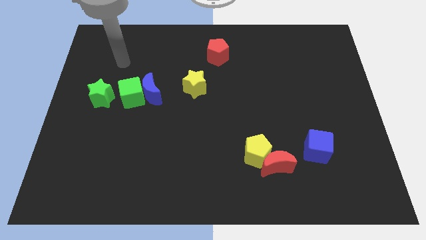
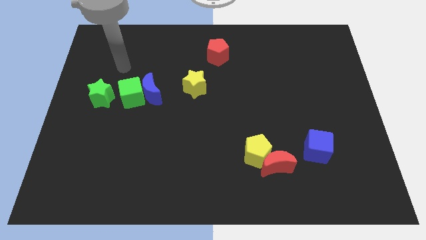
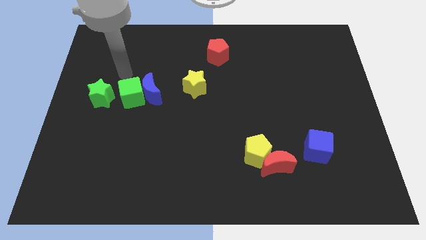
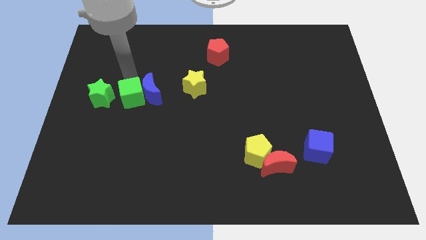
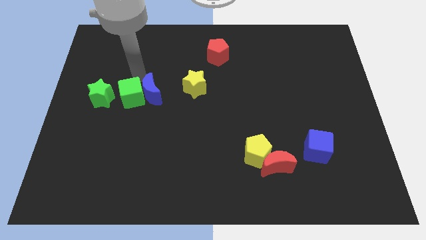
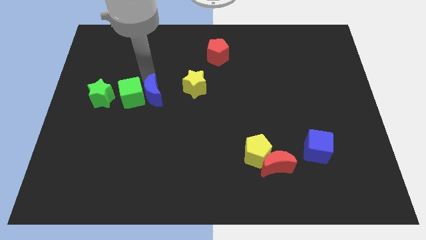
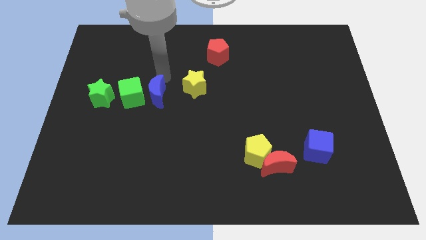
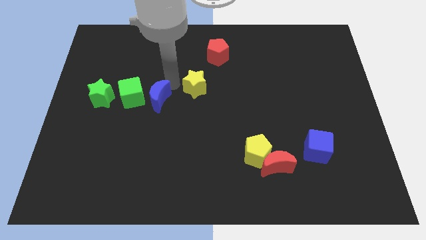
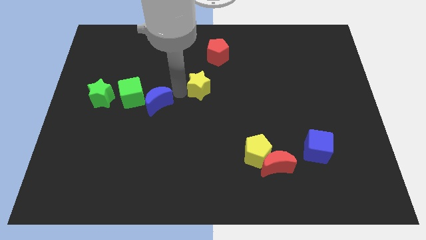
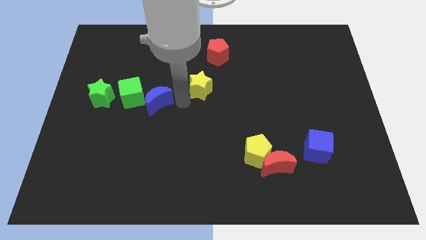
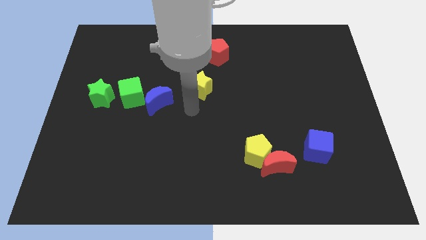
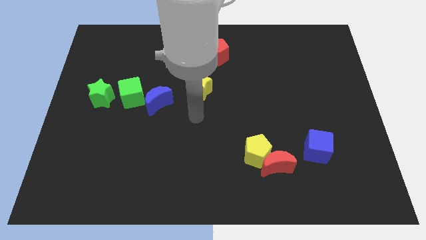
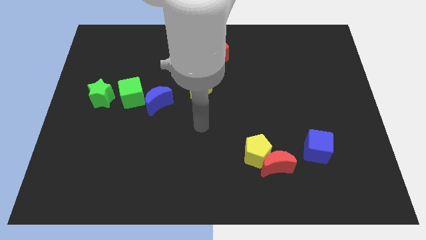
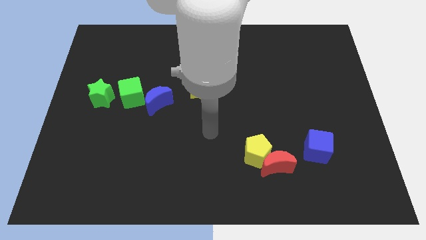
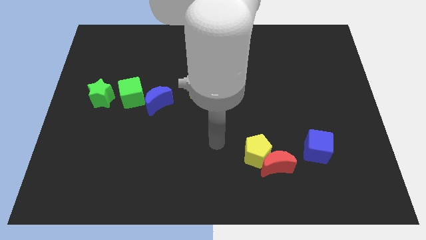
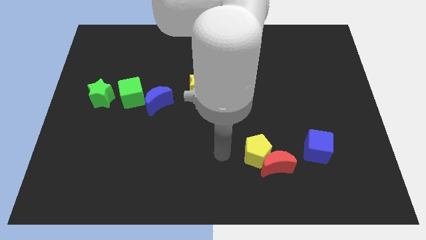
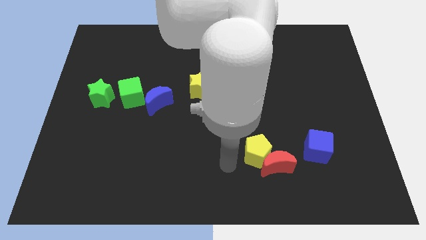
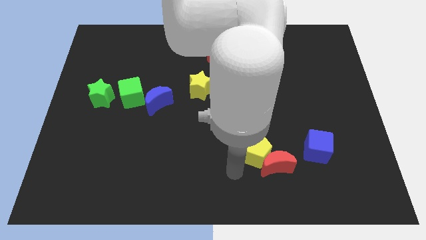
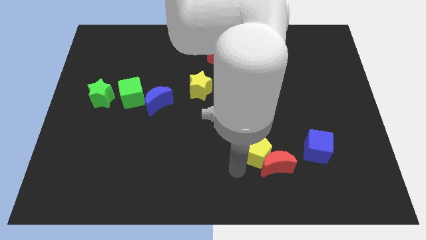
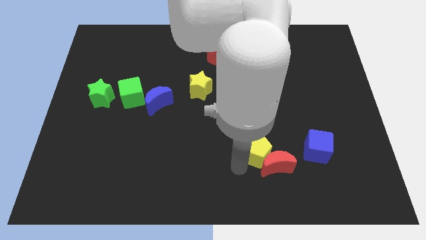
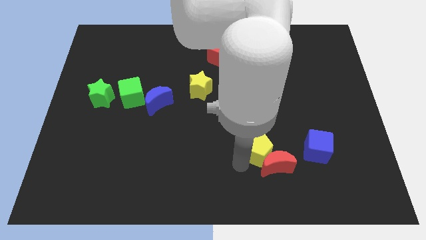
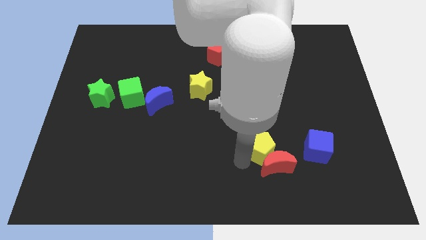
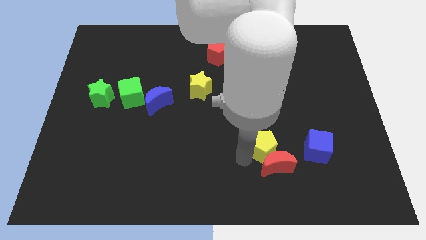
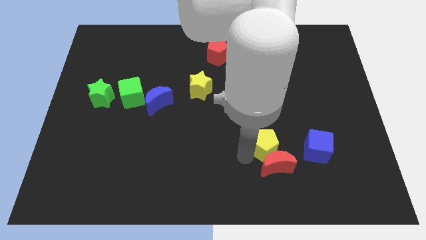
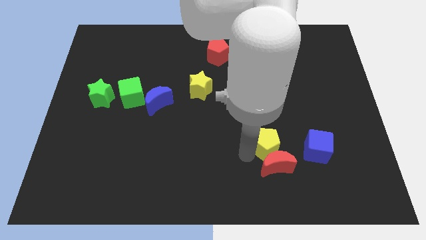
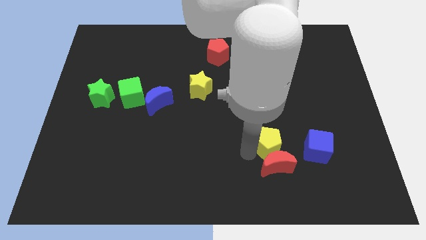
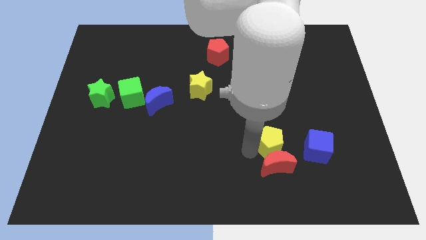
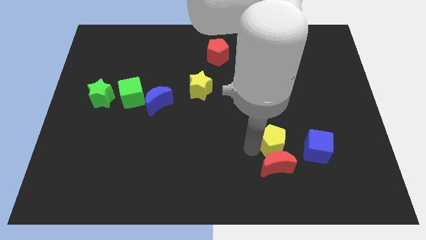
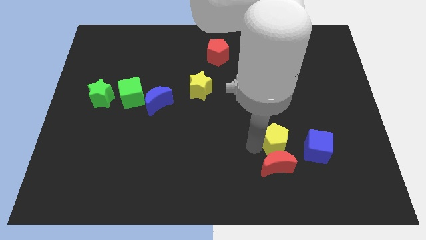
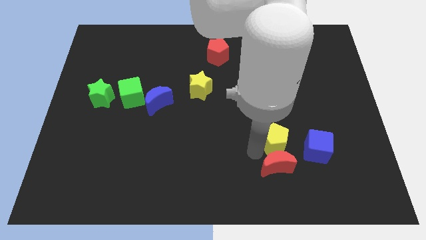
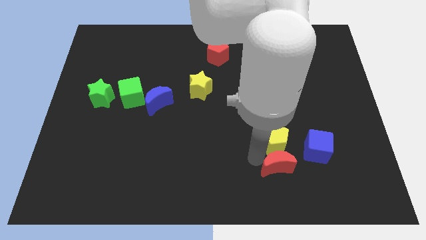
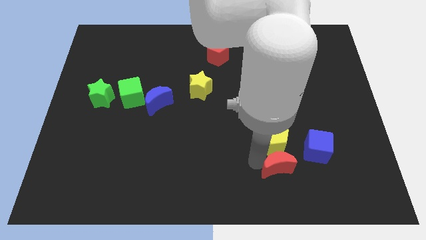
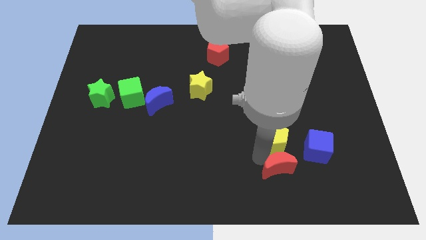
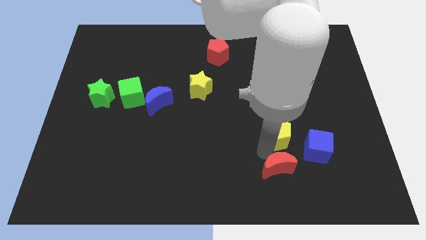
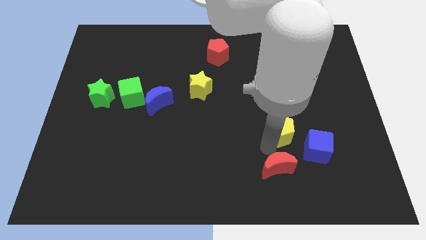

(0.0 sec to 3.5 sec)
slightly move the yellow pentagon upwards and right diagonally

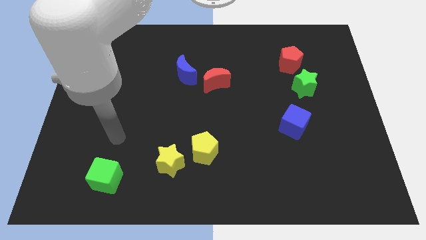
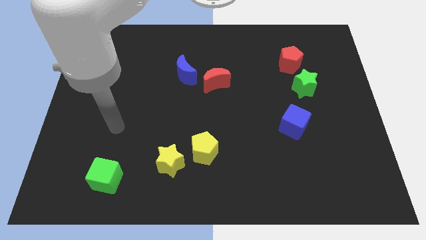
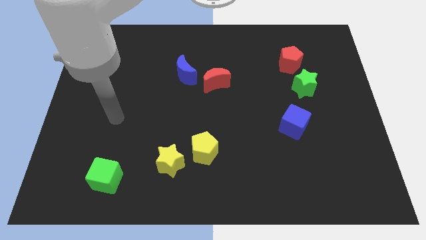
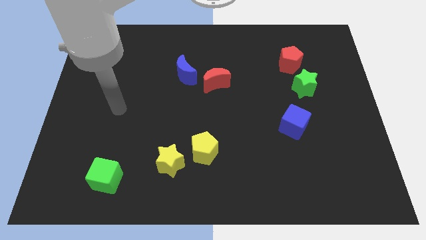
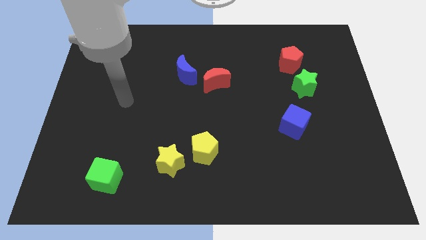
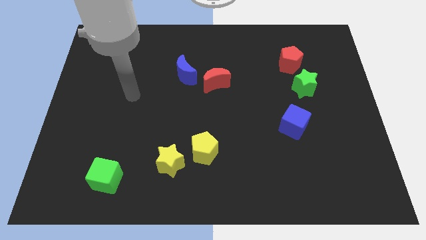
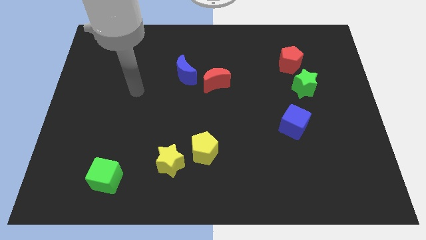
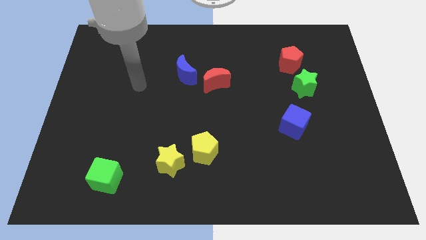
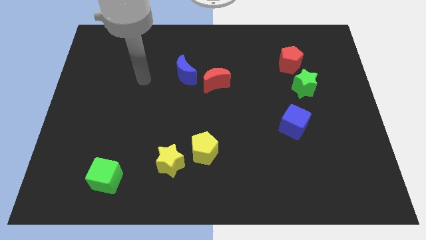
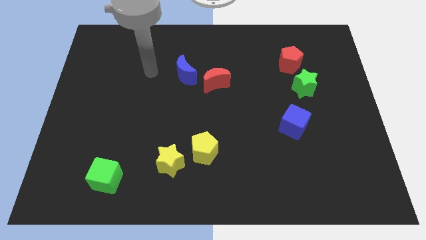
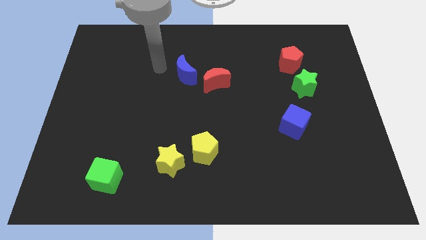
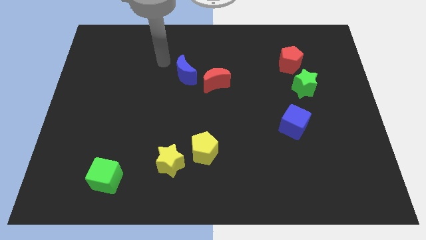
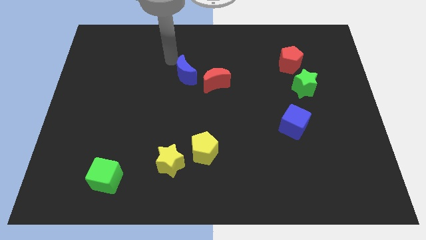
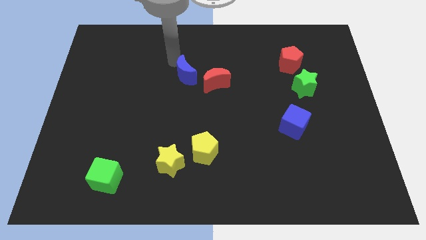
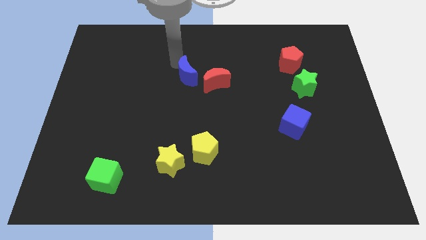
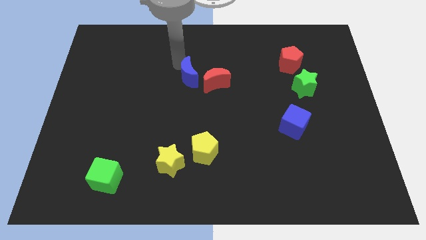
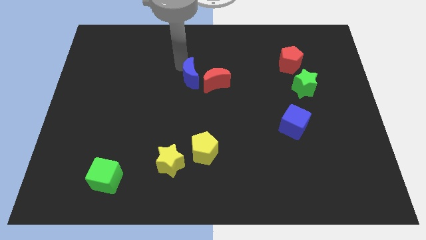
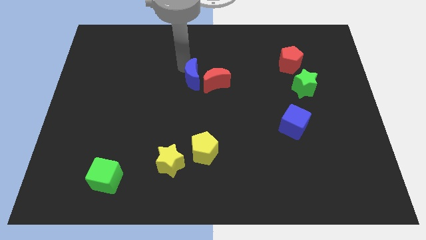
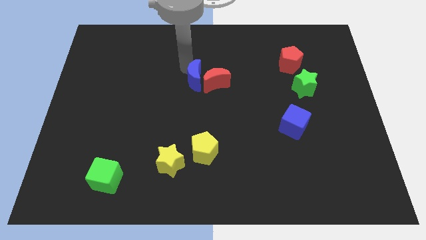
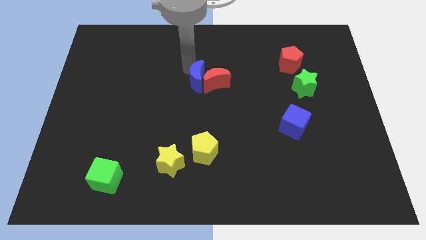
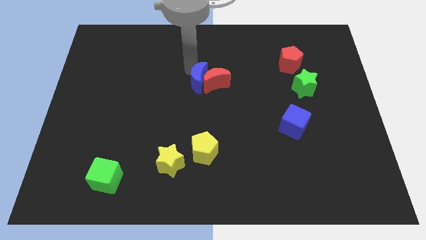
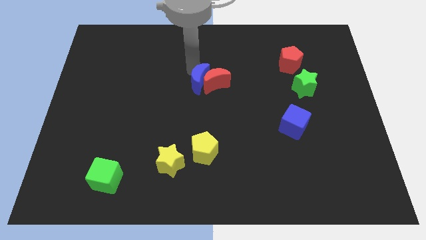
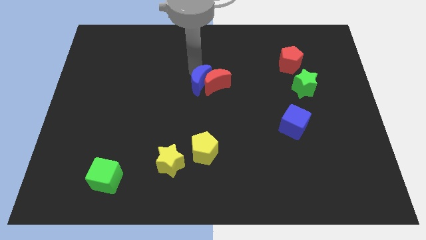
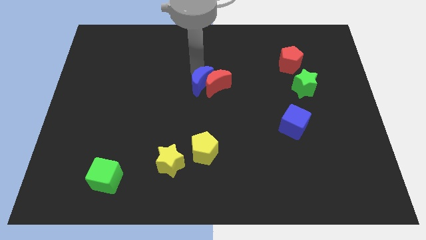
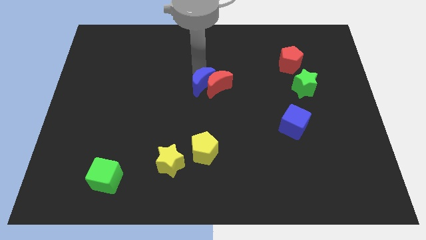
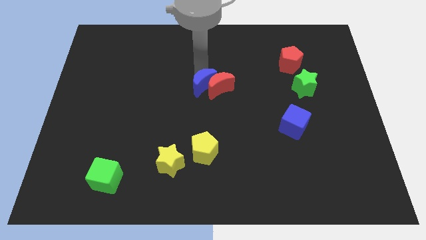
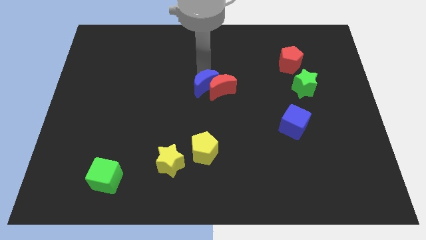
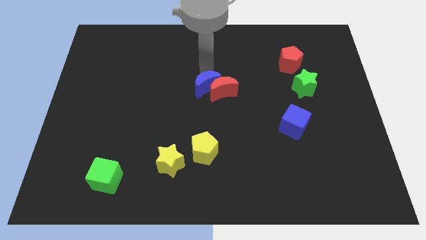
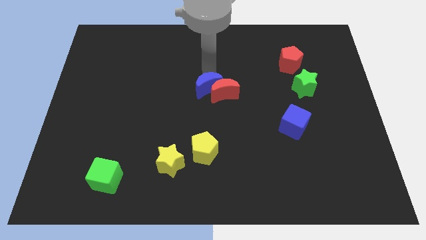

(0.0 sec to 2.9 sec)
push the blue moon somewhat down and to the right diagonally

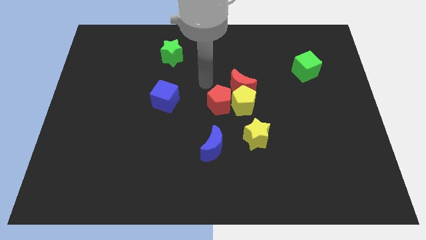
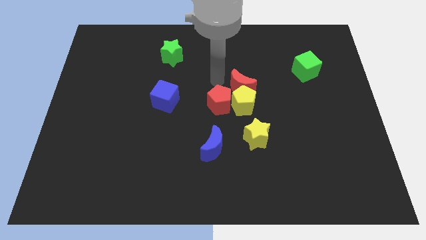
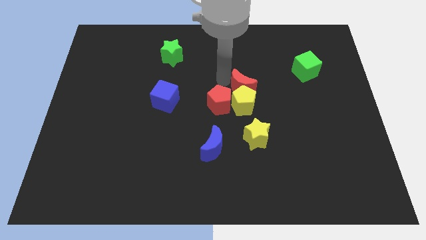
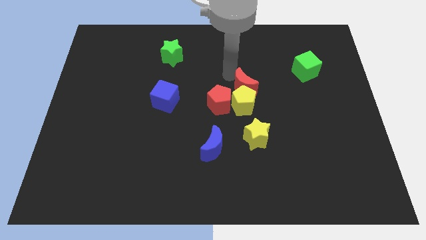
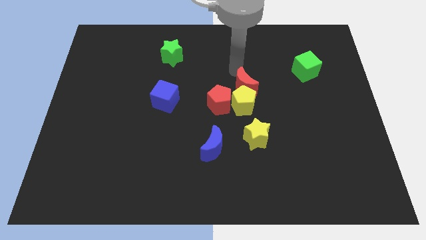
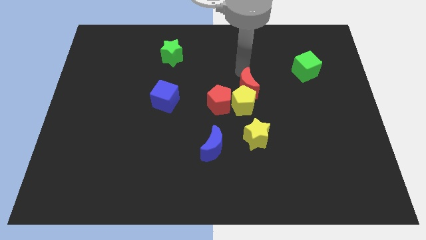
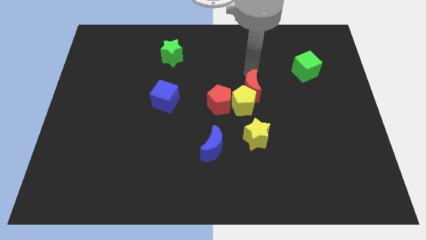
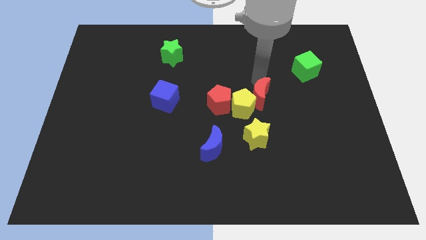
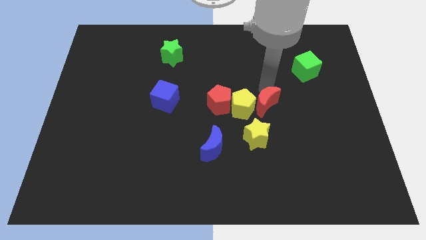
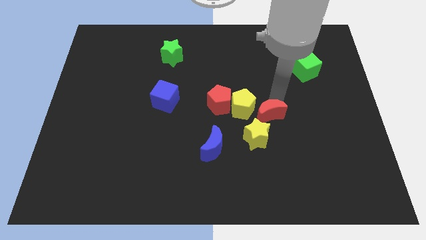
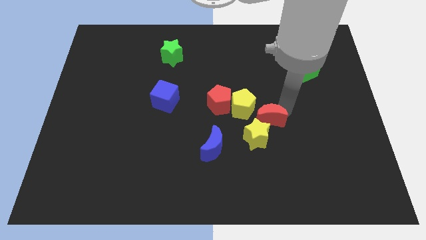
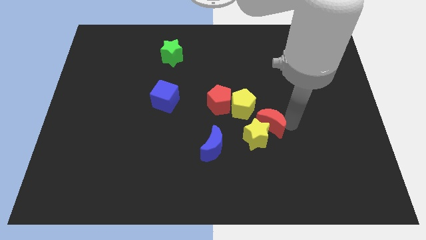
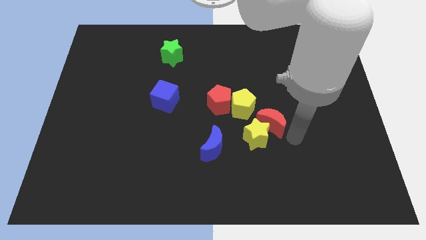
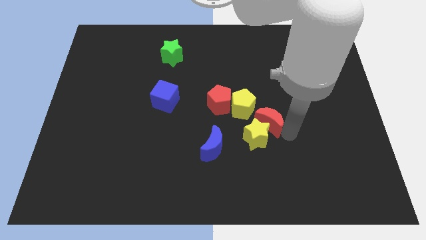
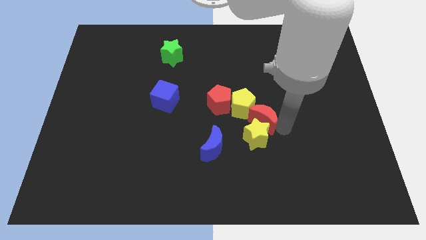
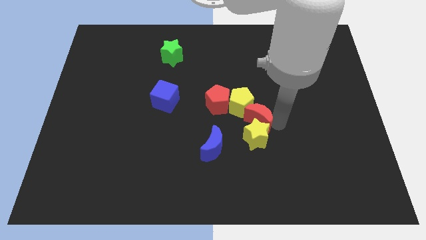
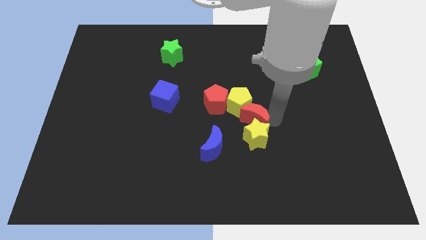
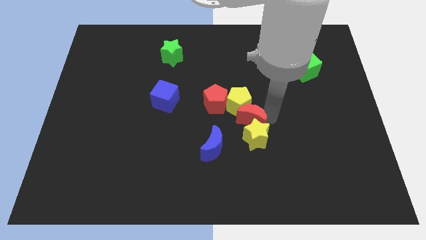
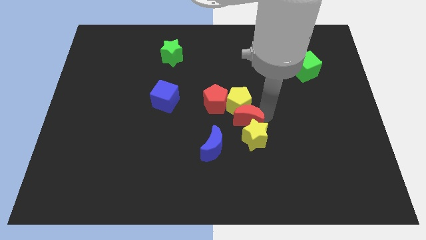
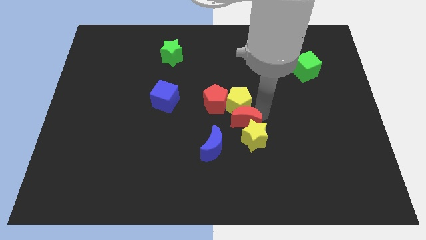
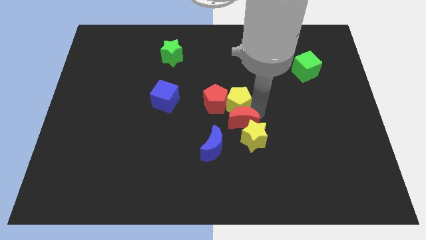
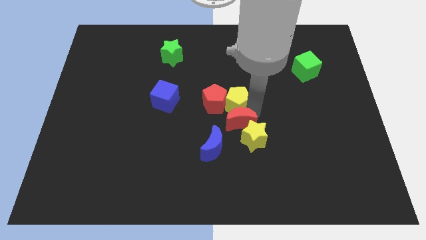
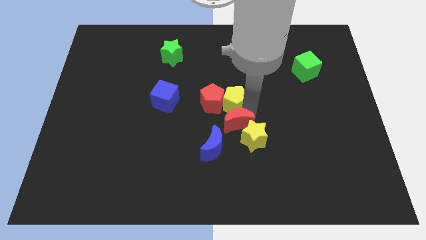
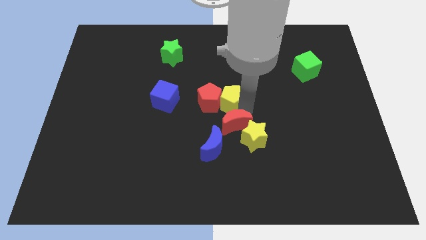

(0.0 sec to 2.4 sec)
move the red moon a little bit downwards and left diagonally
